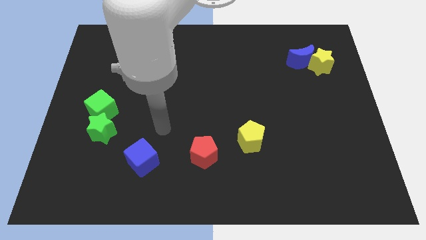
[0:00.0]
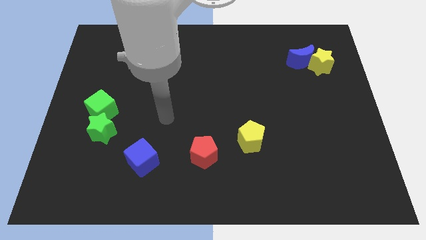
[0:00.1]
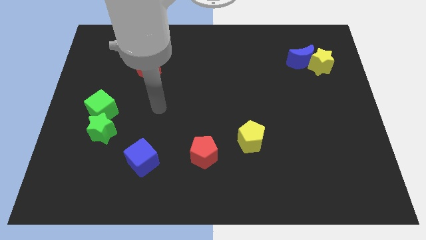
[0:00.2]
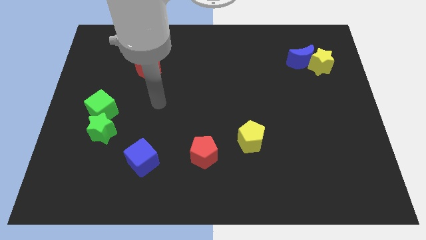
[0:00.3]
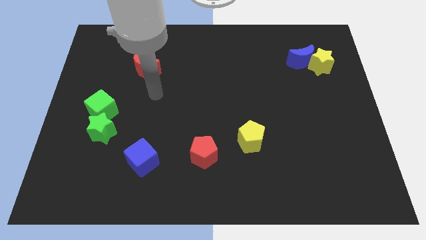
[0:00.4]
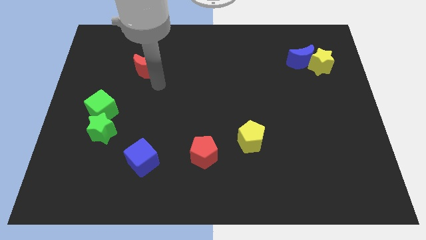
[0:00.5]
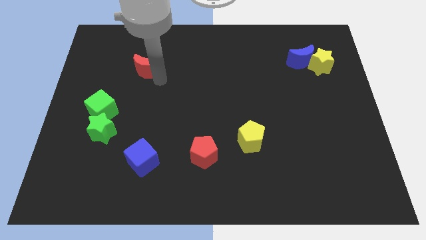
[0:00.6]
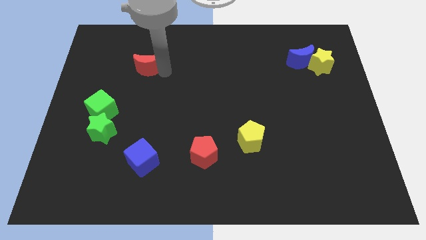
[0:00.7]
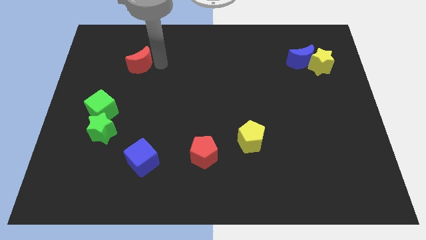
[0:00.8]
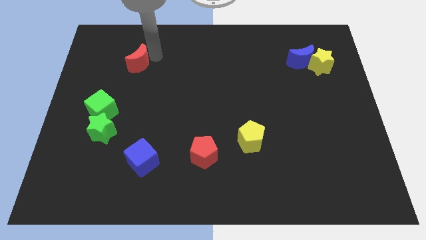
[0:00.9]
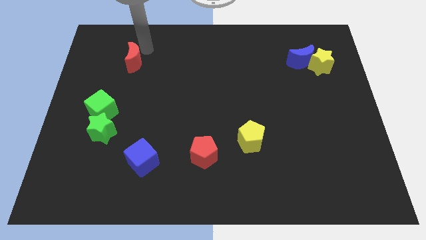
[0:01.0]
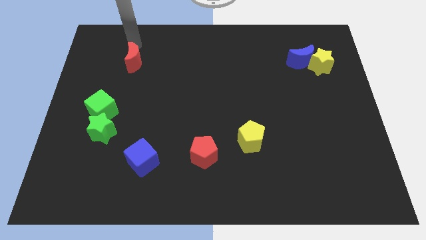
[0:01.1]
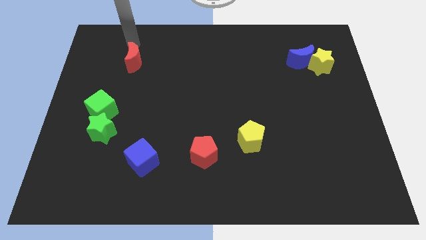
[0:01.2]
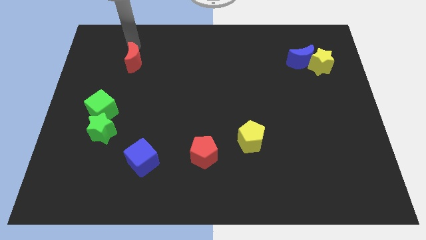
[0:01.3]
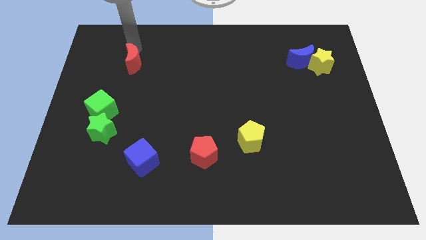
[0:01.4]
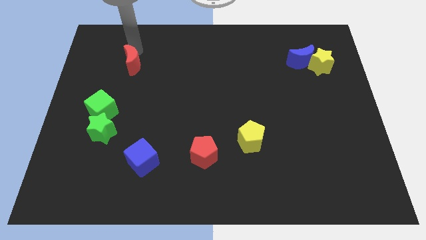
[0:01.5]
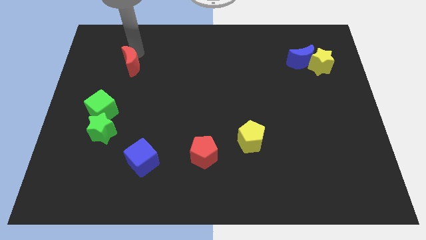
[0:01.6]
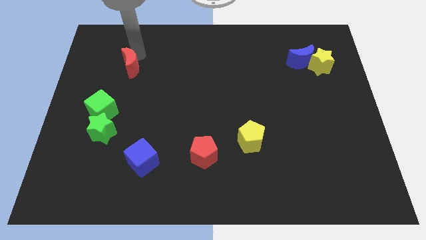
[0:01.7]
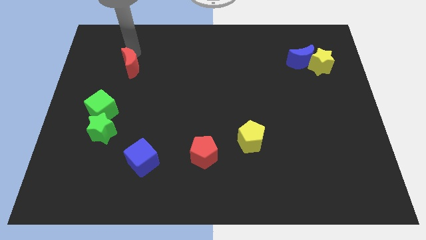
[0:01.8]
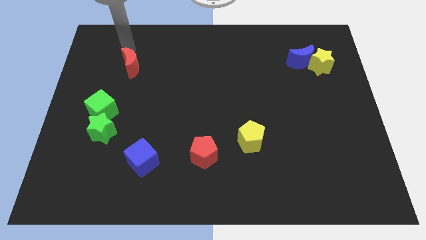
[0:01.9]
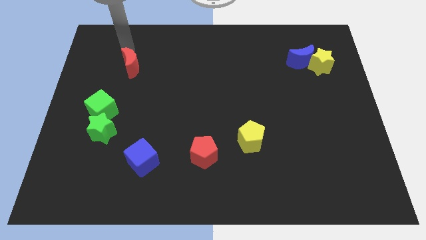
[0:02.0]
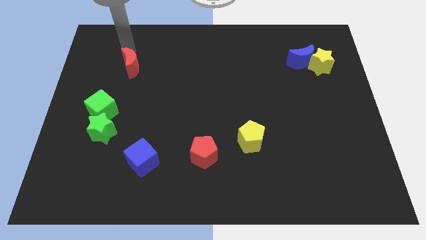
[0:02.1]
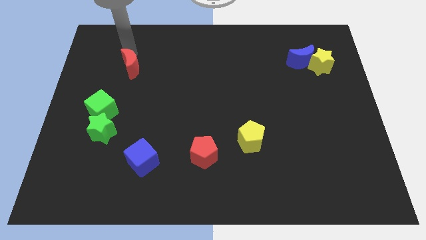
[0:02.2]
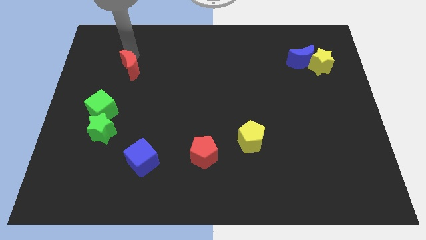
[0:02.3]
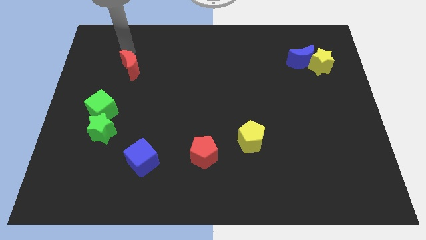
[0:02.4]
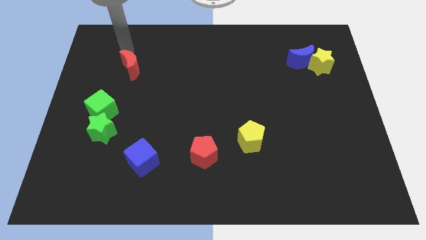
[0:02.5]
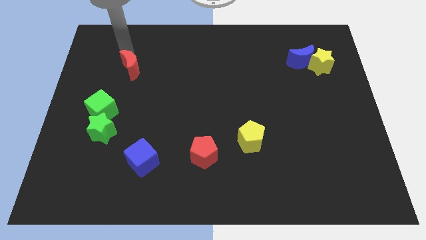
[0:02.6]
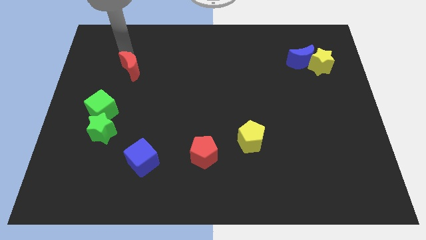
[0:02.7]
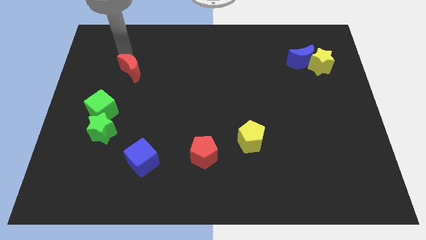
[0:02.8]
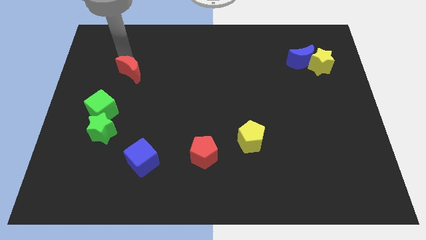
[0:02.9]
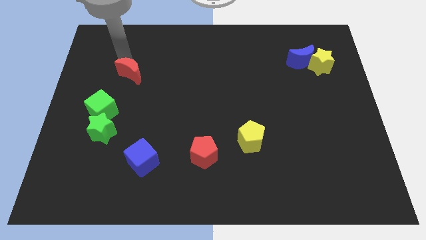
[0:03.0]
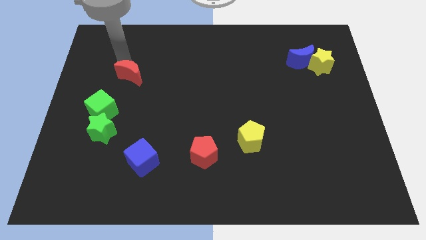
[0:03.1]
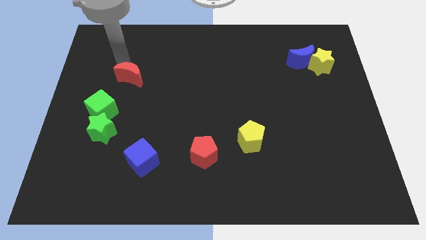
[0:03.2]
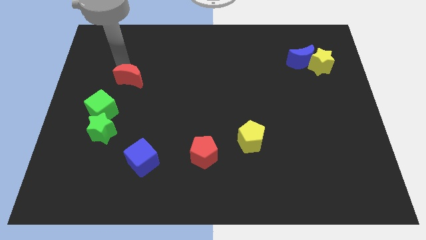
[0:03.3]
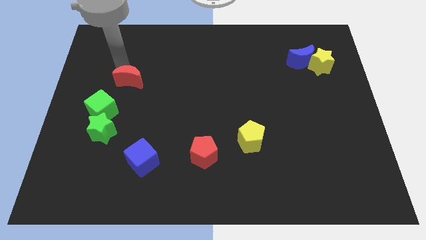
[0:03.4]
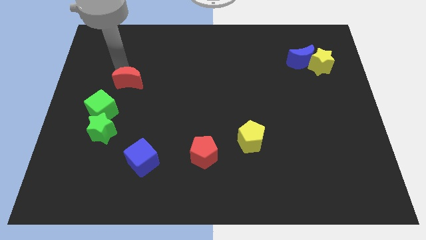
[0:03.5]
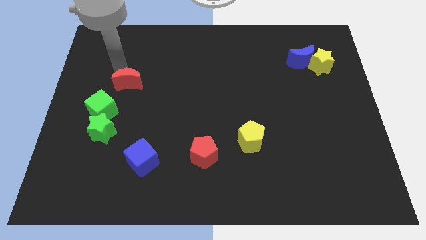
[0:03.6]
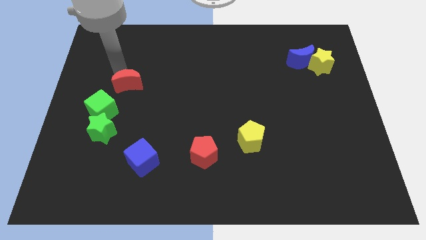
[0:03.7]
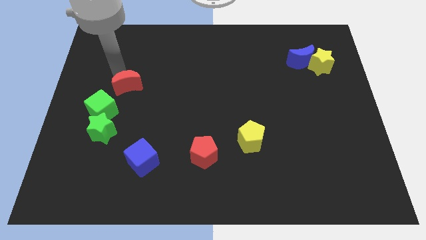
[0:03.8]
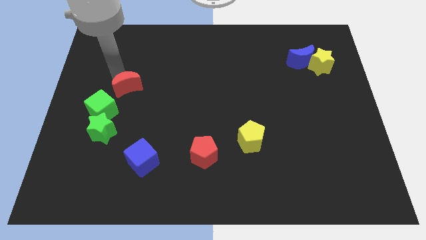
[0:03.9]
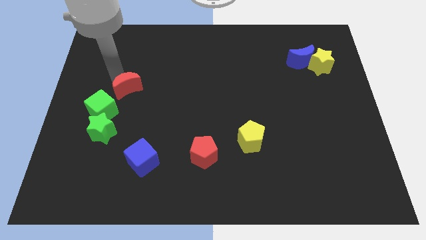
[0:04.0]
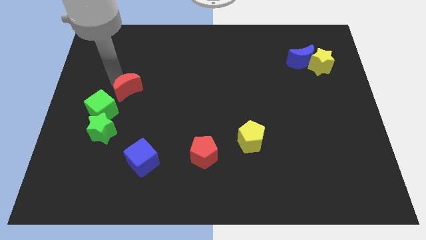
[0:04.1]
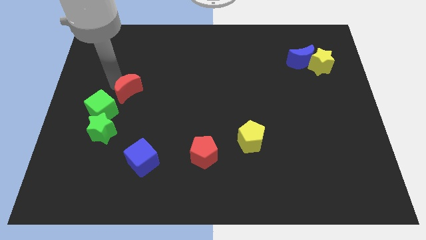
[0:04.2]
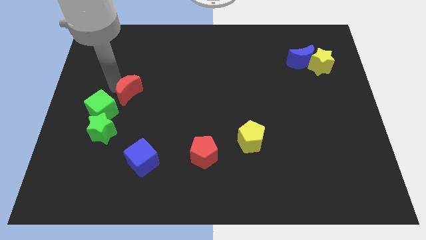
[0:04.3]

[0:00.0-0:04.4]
slightly move the red moon down

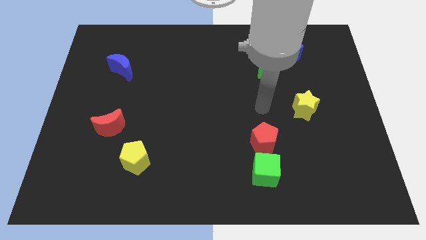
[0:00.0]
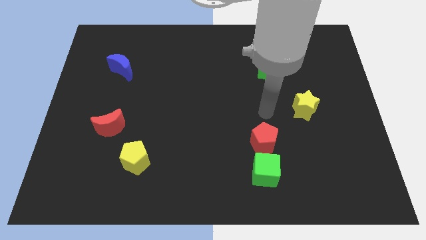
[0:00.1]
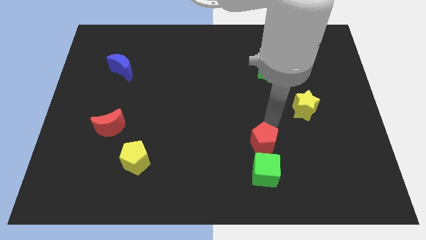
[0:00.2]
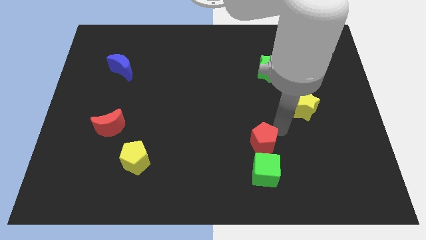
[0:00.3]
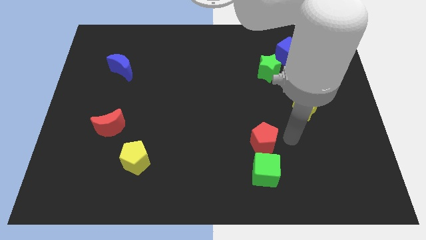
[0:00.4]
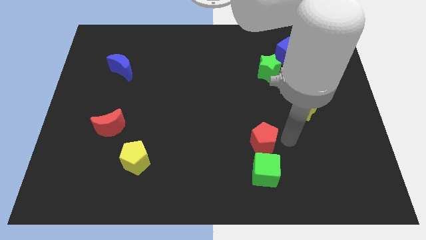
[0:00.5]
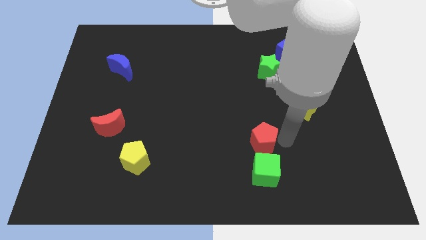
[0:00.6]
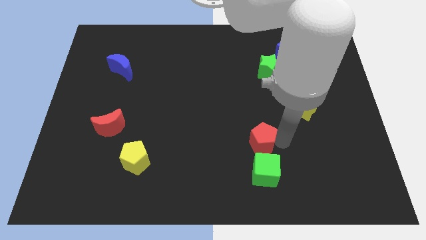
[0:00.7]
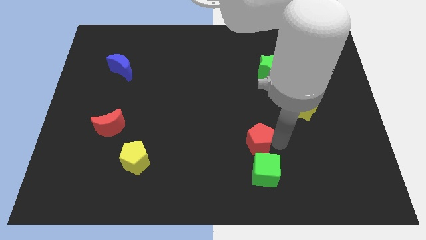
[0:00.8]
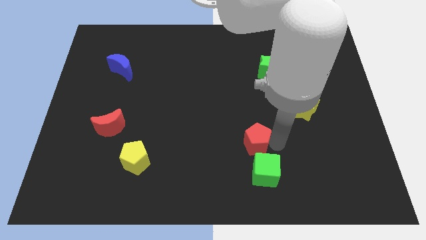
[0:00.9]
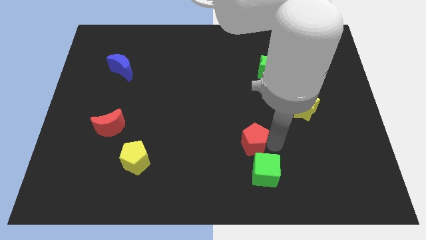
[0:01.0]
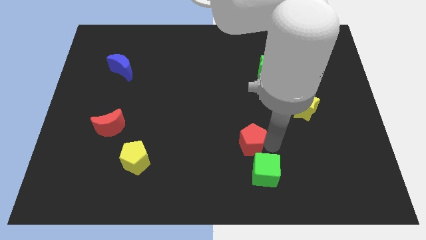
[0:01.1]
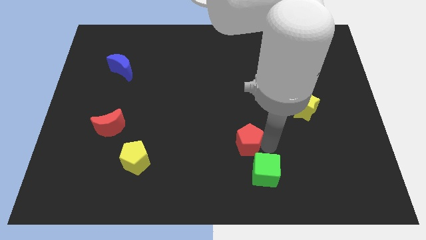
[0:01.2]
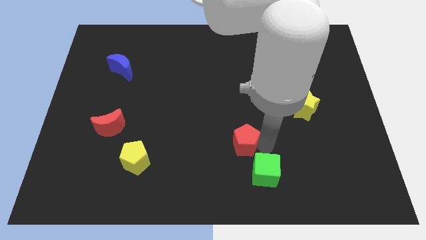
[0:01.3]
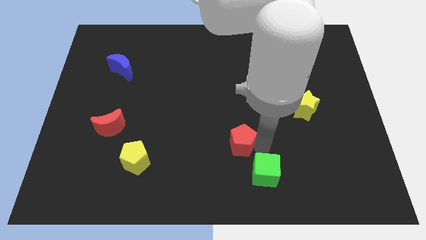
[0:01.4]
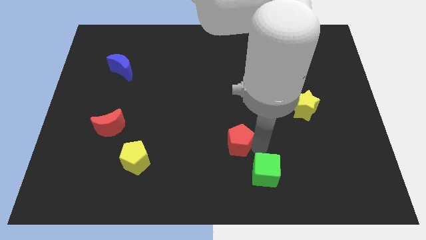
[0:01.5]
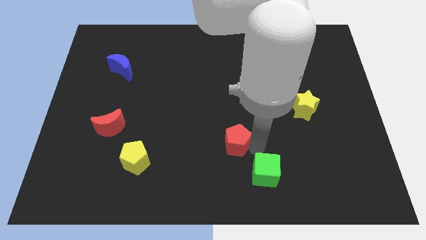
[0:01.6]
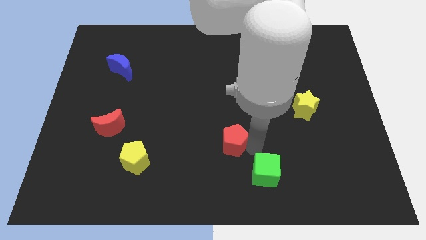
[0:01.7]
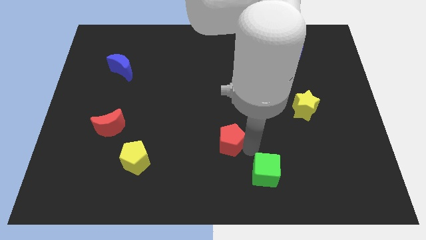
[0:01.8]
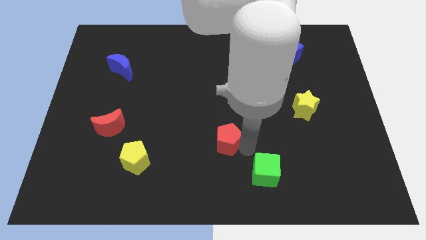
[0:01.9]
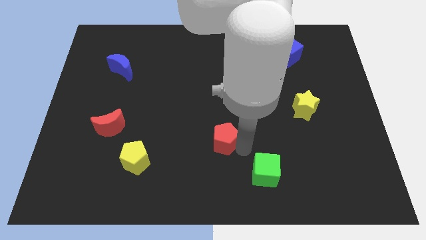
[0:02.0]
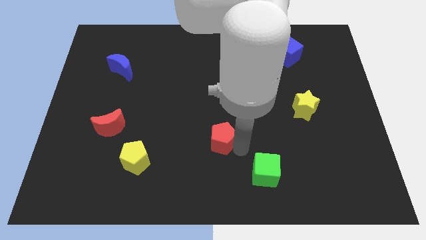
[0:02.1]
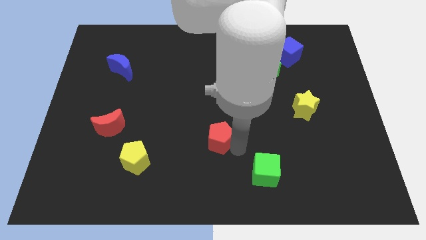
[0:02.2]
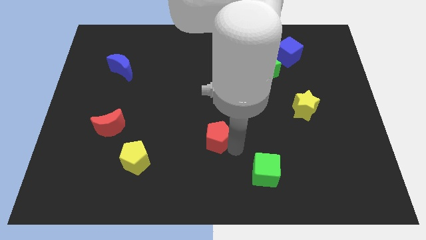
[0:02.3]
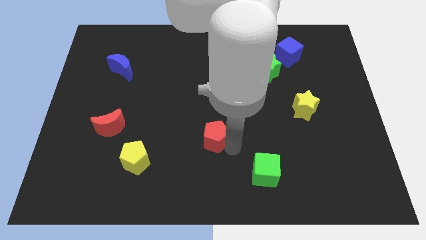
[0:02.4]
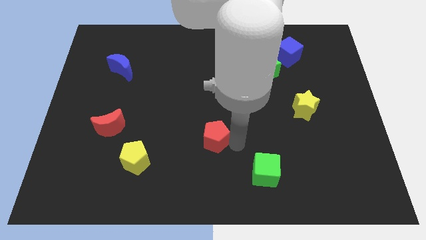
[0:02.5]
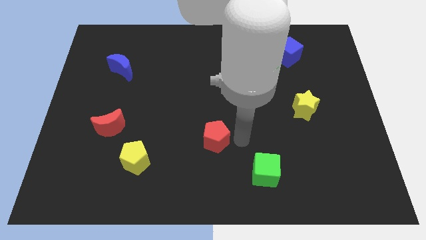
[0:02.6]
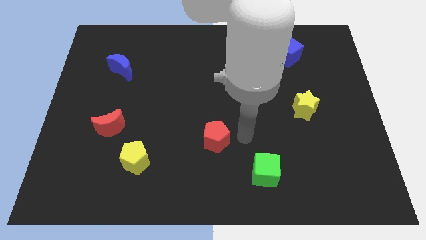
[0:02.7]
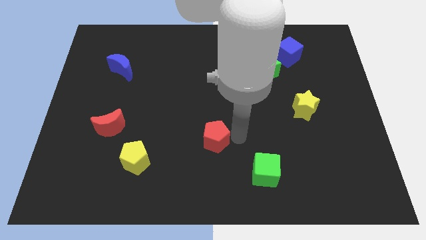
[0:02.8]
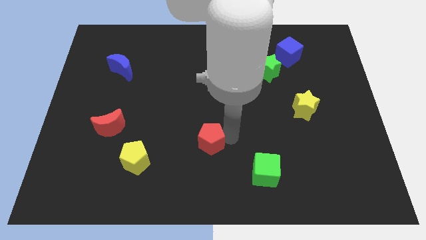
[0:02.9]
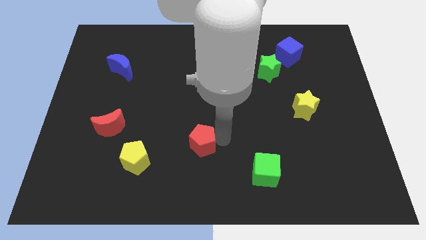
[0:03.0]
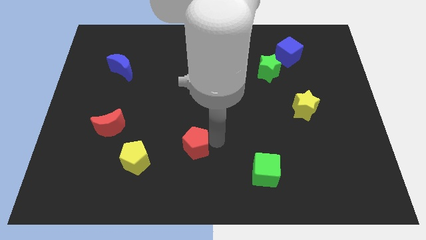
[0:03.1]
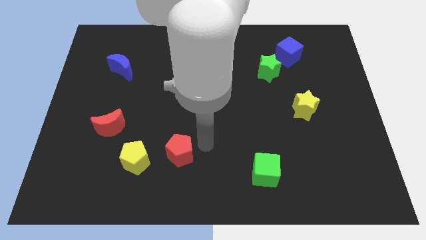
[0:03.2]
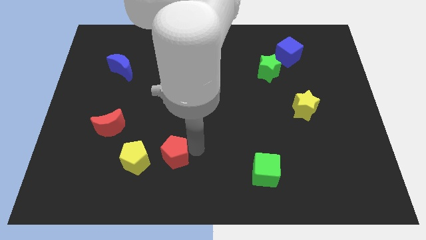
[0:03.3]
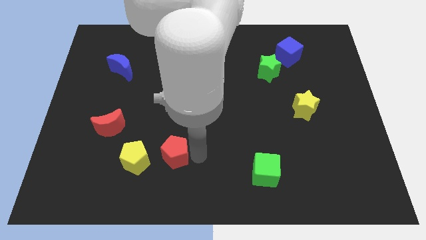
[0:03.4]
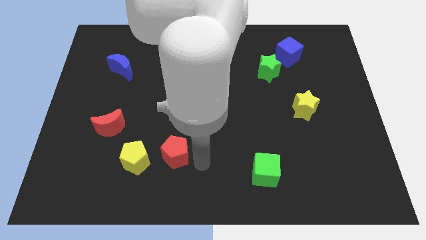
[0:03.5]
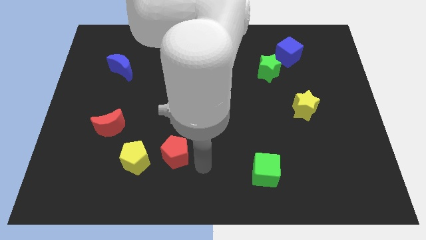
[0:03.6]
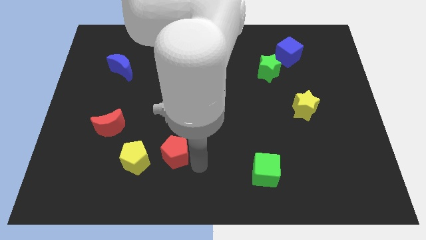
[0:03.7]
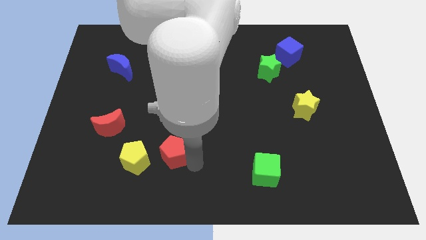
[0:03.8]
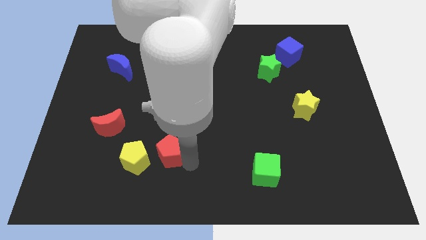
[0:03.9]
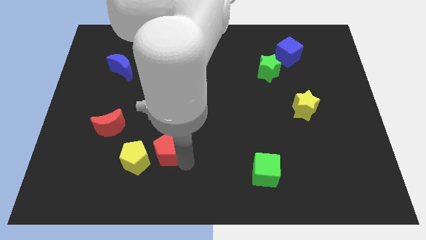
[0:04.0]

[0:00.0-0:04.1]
slide the red pentagon to the left
